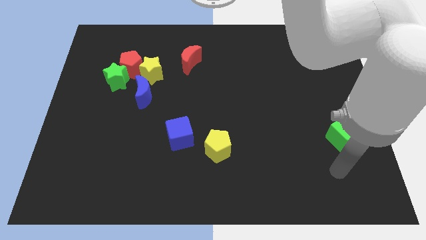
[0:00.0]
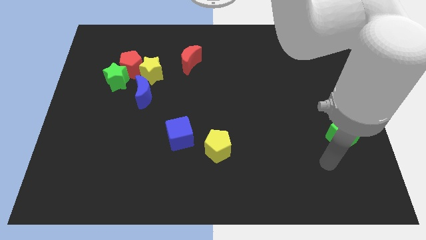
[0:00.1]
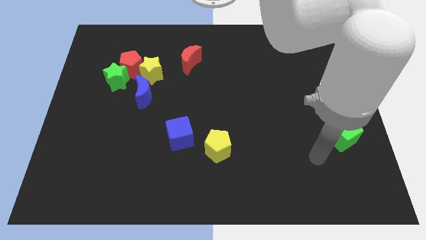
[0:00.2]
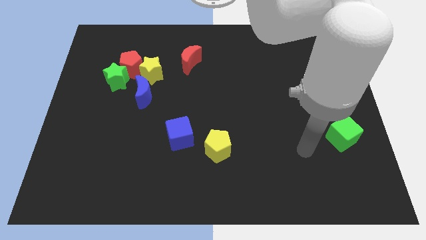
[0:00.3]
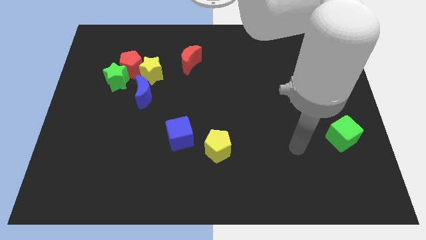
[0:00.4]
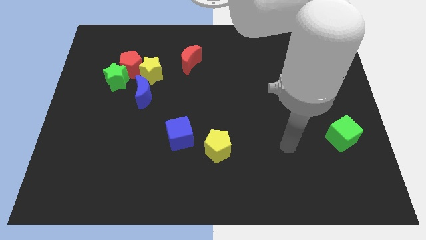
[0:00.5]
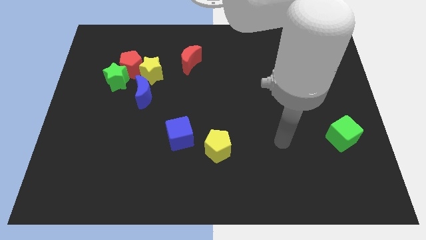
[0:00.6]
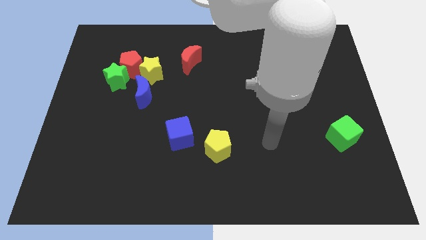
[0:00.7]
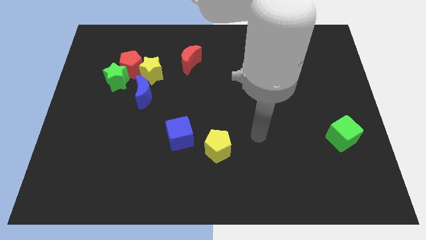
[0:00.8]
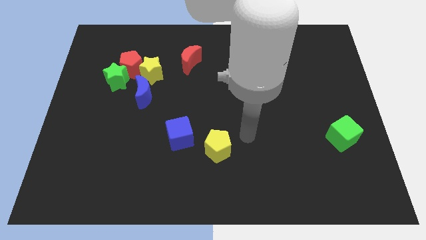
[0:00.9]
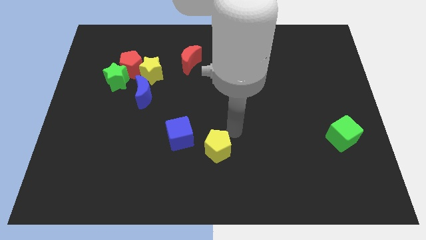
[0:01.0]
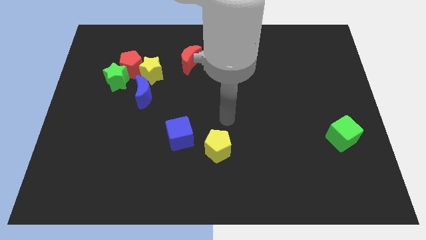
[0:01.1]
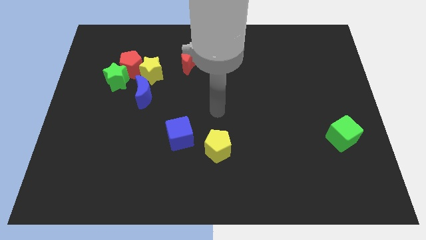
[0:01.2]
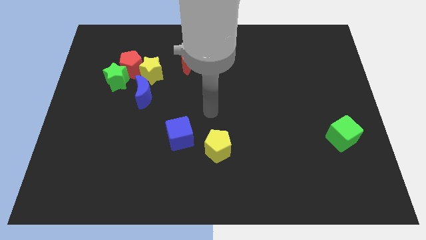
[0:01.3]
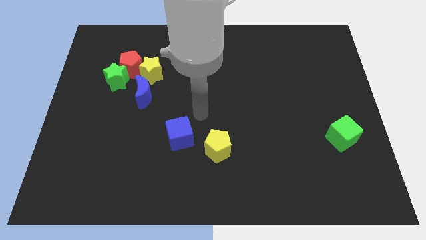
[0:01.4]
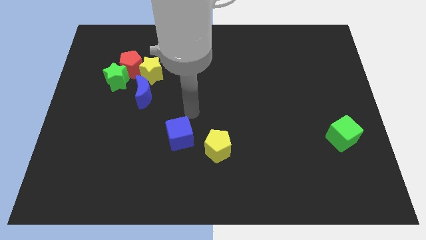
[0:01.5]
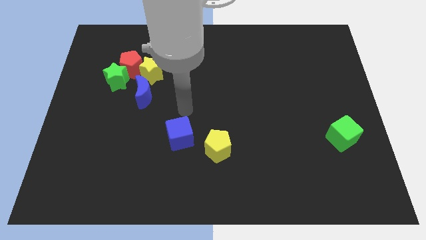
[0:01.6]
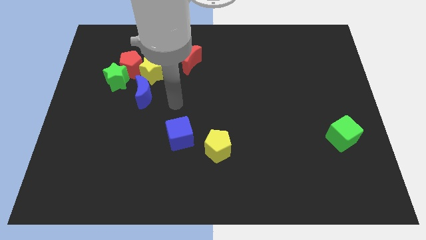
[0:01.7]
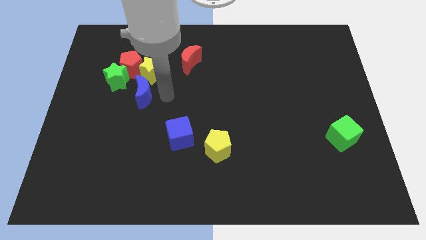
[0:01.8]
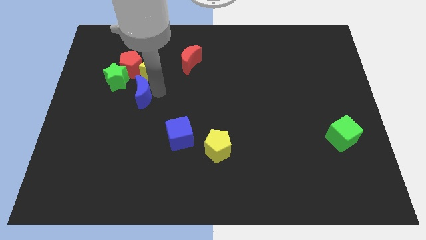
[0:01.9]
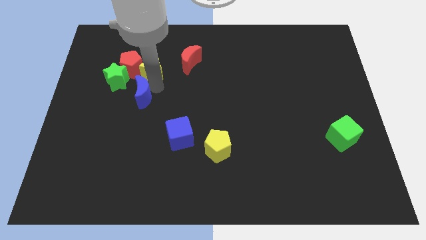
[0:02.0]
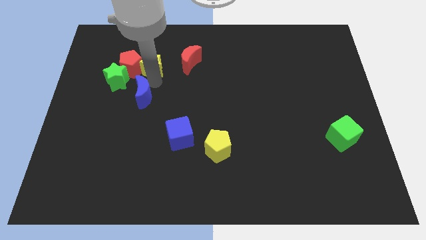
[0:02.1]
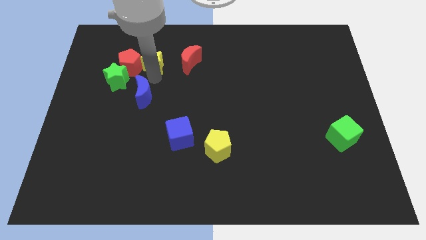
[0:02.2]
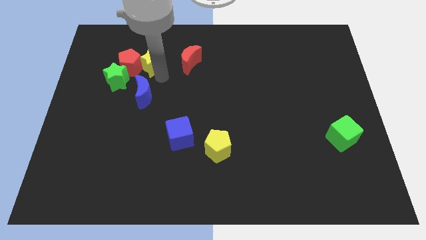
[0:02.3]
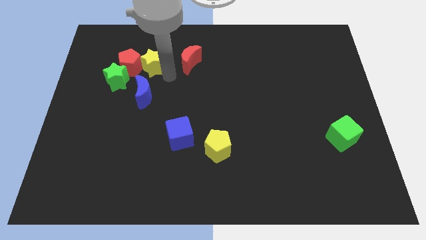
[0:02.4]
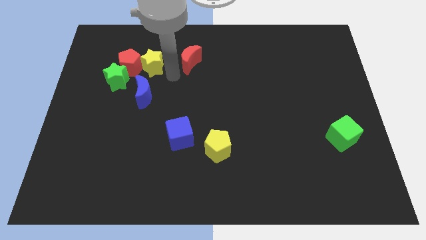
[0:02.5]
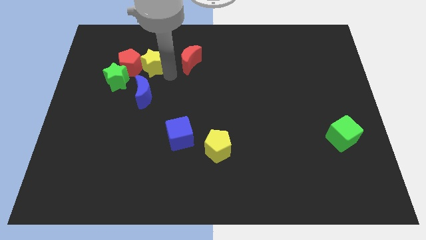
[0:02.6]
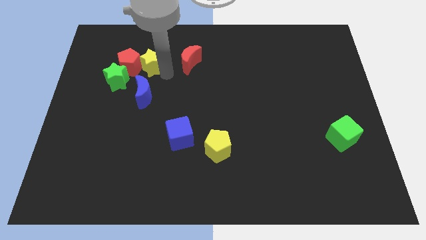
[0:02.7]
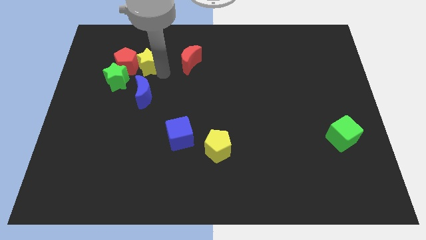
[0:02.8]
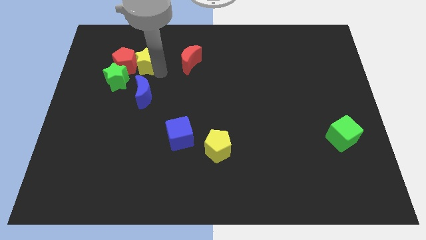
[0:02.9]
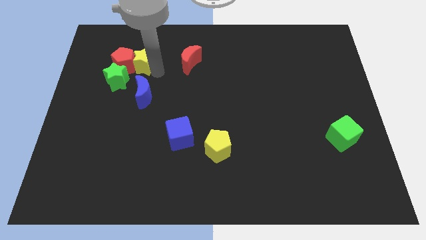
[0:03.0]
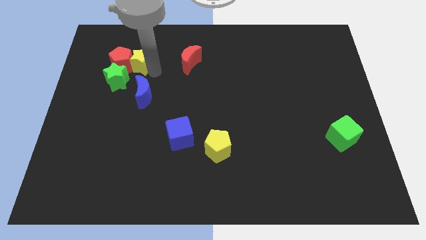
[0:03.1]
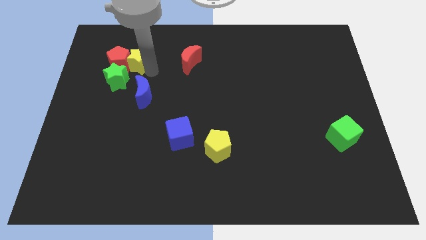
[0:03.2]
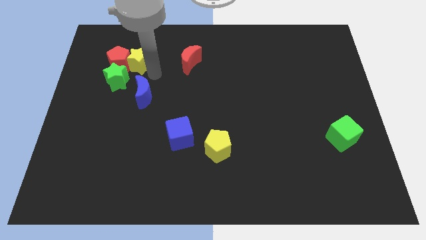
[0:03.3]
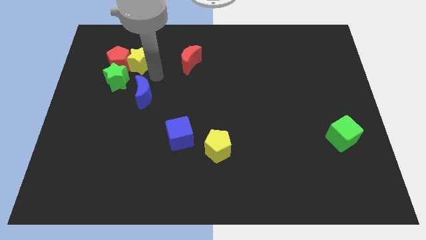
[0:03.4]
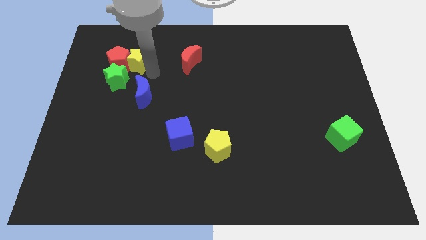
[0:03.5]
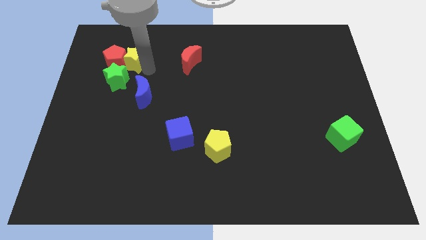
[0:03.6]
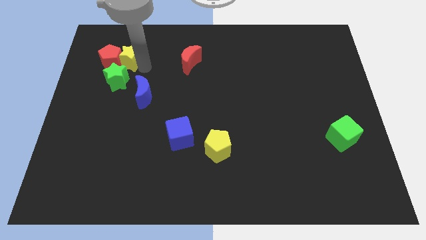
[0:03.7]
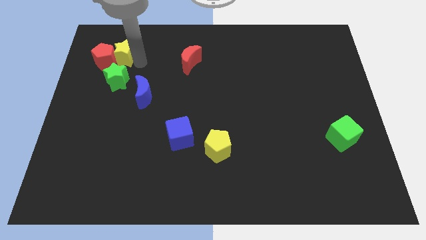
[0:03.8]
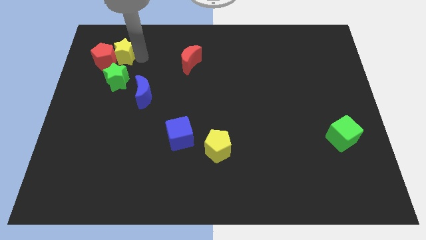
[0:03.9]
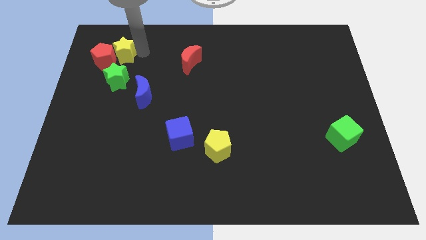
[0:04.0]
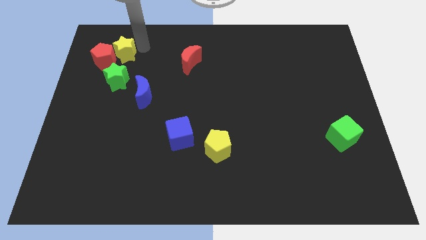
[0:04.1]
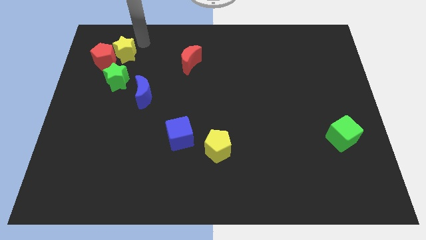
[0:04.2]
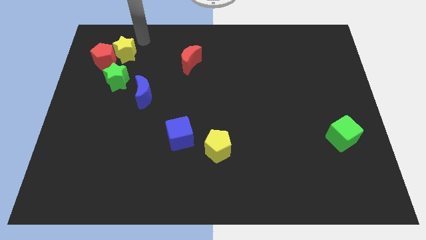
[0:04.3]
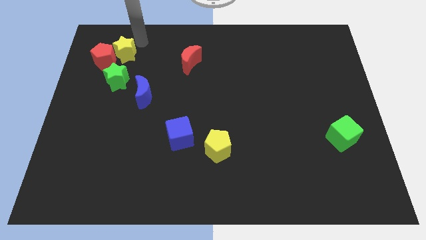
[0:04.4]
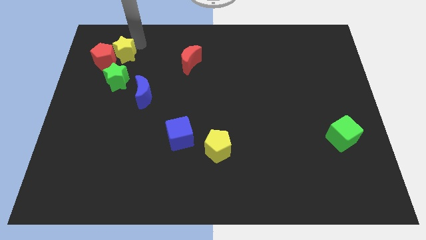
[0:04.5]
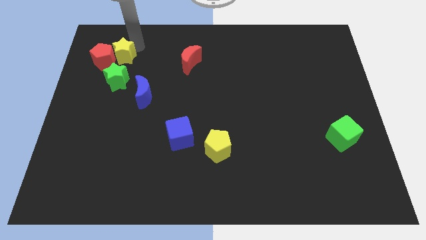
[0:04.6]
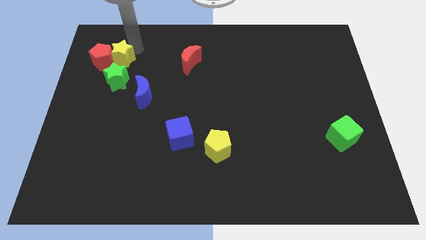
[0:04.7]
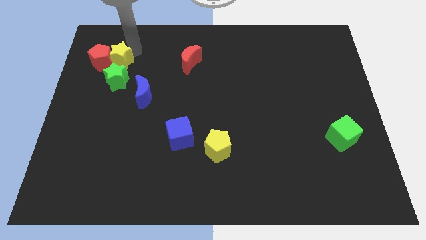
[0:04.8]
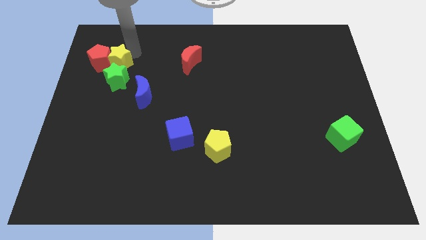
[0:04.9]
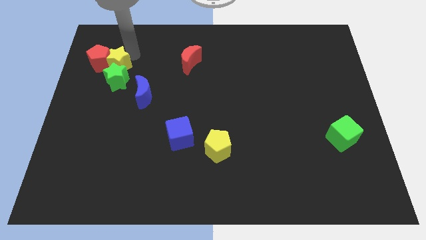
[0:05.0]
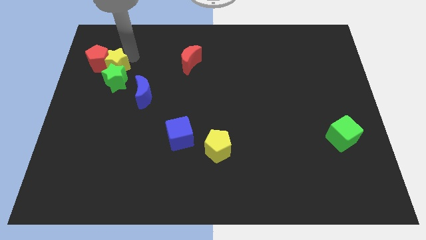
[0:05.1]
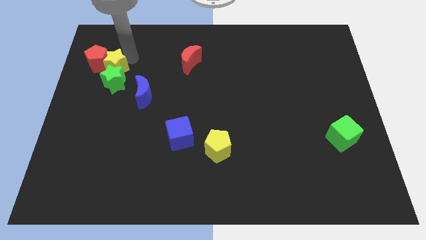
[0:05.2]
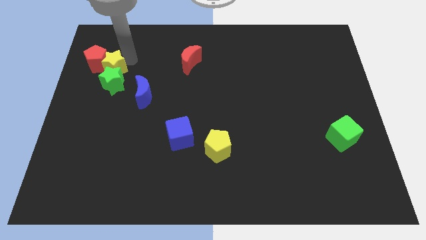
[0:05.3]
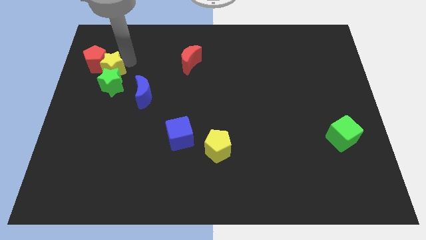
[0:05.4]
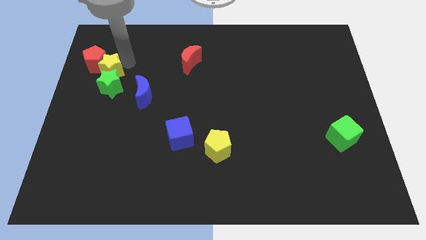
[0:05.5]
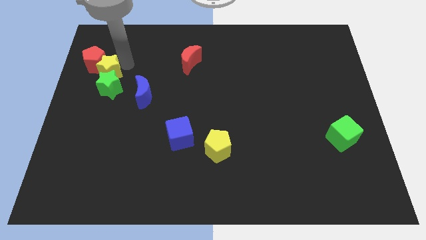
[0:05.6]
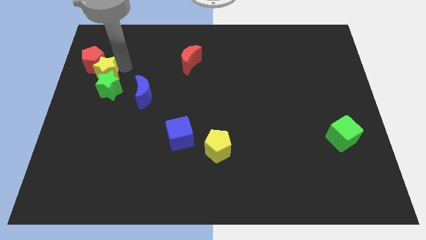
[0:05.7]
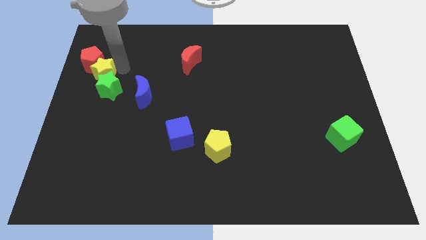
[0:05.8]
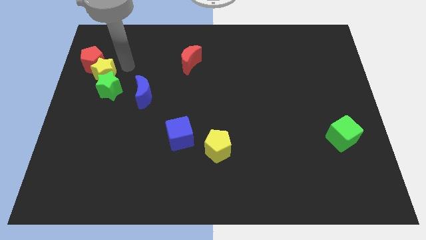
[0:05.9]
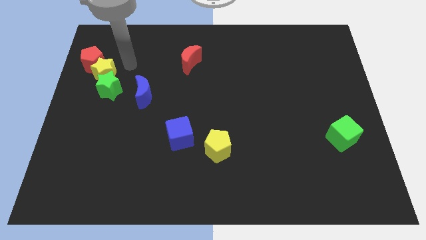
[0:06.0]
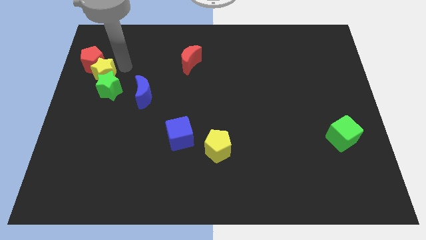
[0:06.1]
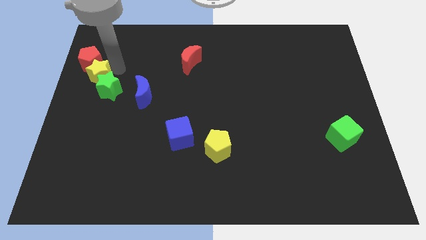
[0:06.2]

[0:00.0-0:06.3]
put the yellow star to the left side of the board

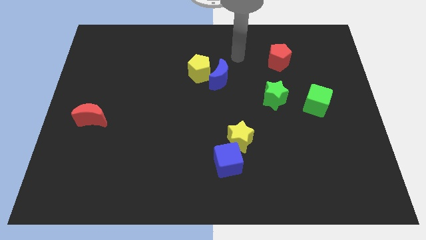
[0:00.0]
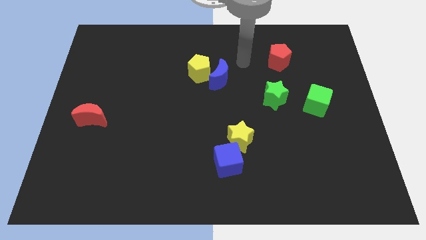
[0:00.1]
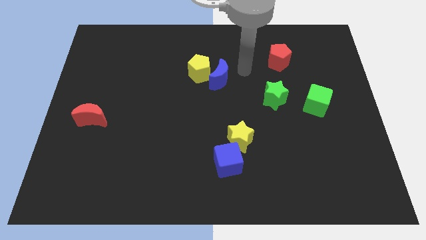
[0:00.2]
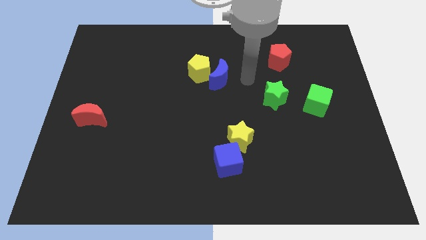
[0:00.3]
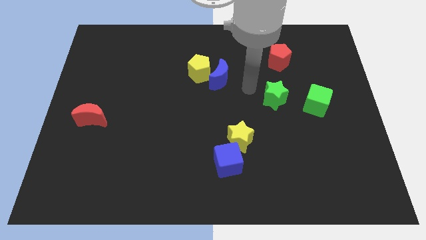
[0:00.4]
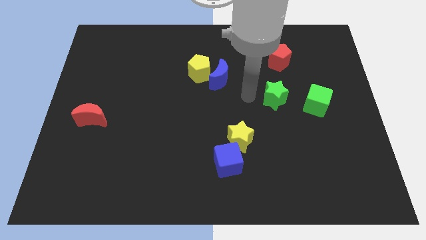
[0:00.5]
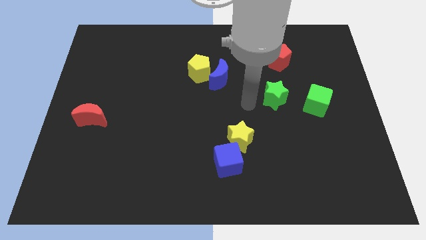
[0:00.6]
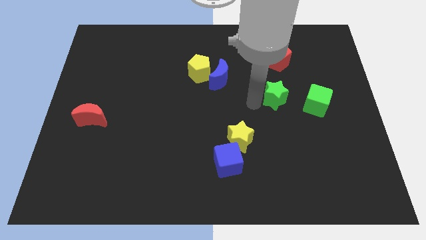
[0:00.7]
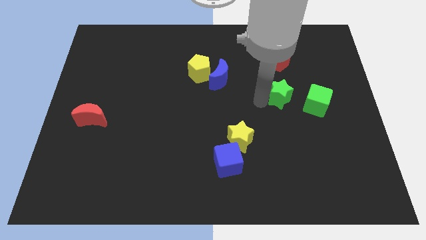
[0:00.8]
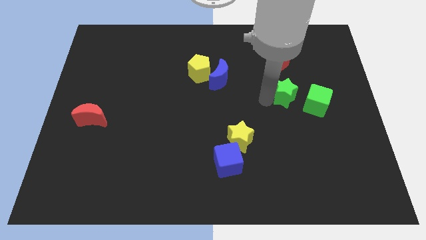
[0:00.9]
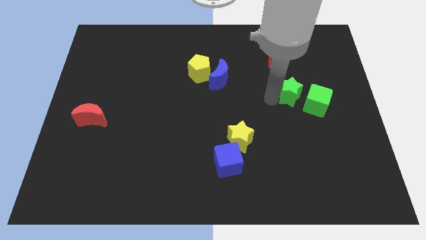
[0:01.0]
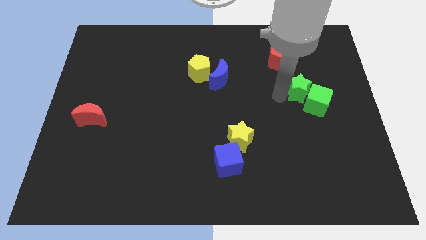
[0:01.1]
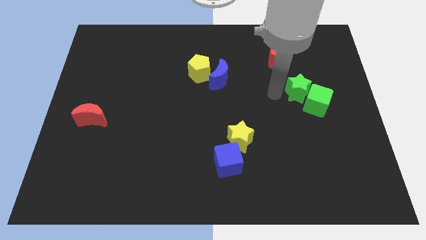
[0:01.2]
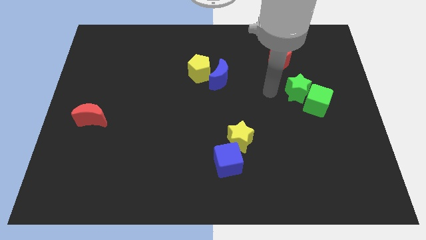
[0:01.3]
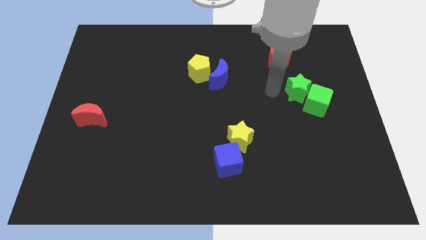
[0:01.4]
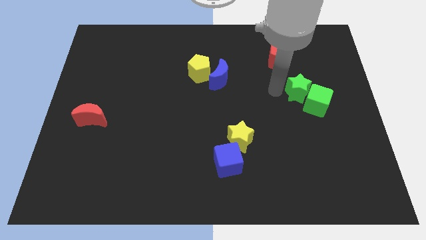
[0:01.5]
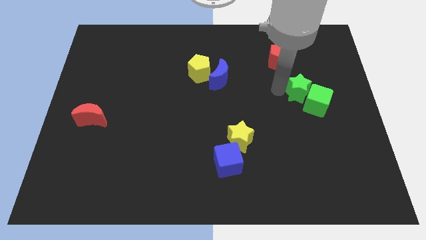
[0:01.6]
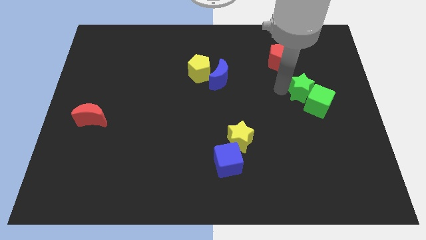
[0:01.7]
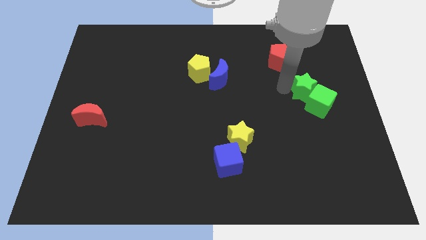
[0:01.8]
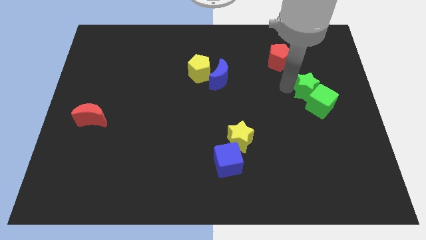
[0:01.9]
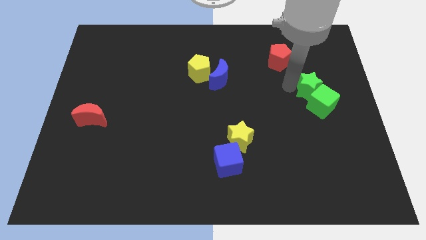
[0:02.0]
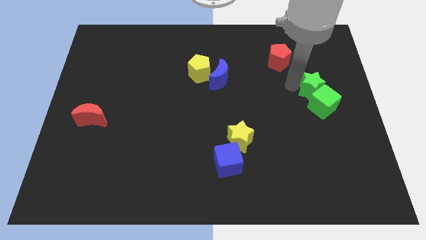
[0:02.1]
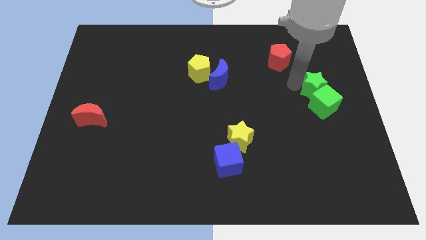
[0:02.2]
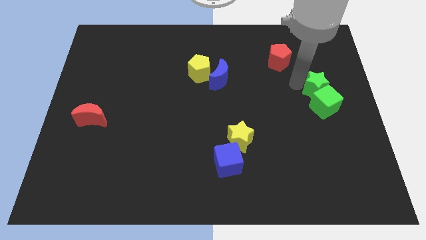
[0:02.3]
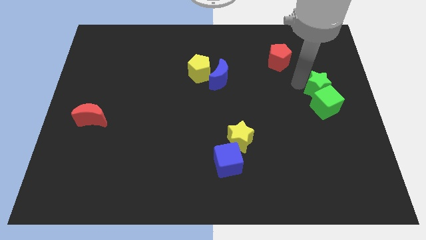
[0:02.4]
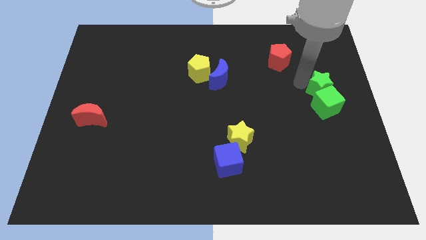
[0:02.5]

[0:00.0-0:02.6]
put the green star to the right side of the board
